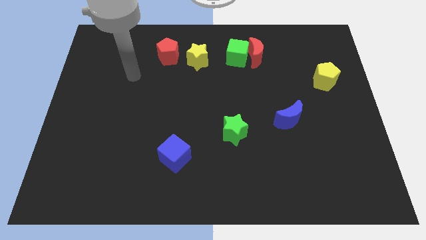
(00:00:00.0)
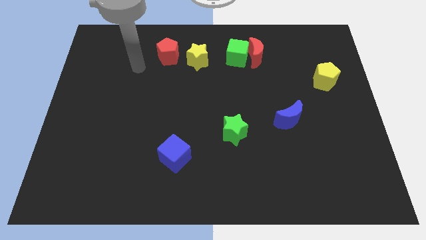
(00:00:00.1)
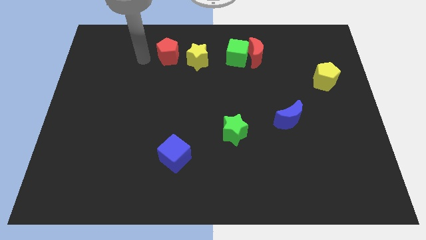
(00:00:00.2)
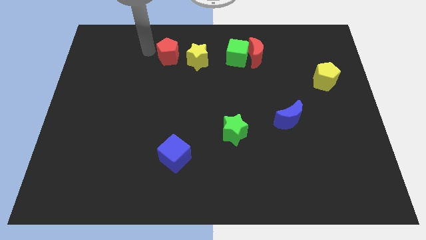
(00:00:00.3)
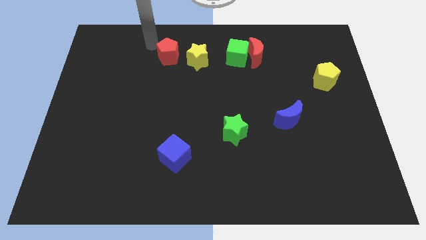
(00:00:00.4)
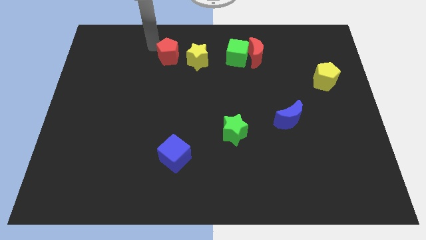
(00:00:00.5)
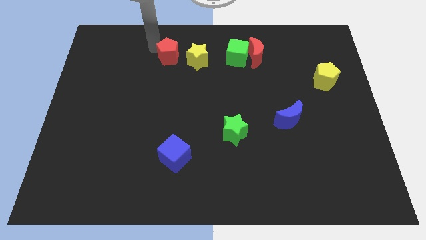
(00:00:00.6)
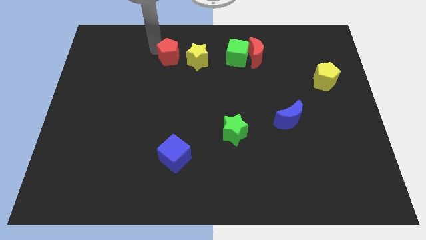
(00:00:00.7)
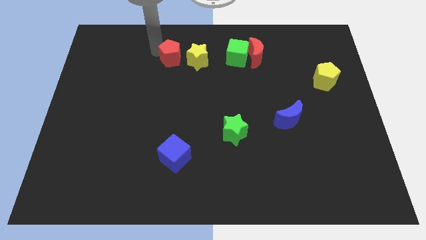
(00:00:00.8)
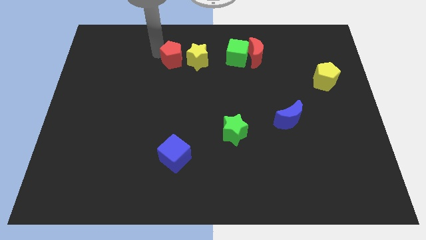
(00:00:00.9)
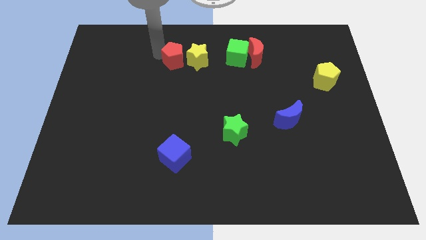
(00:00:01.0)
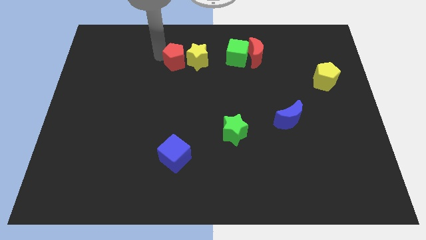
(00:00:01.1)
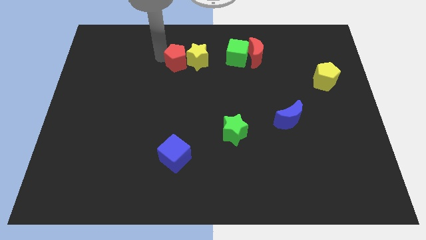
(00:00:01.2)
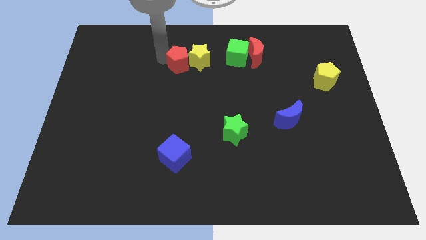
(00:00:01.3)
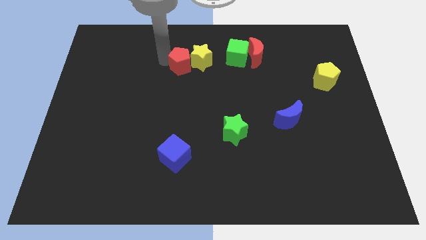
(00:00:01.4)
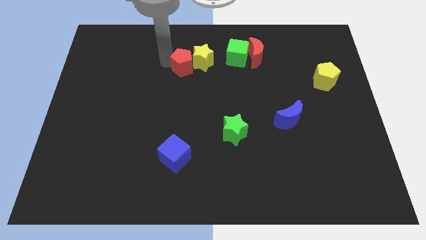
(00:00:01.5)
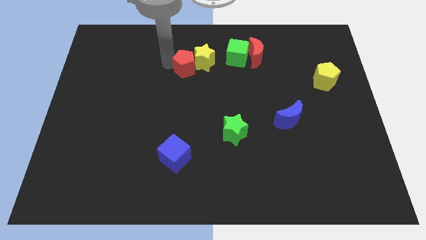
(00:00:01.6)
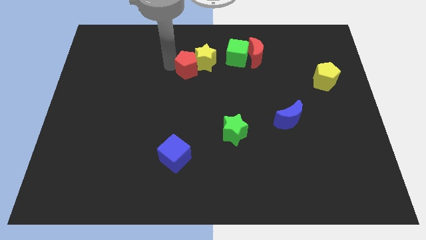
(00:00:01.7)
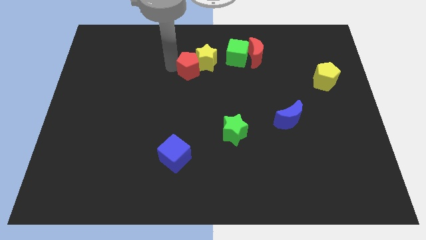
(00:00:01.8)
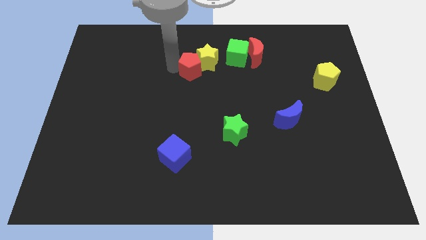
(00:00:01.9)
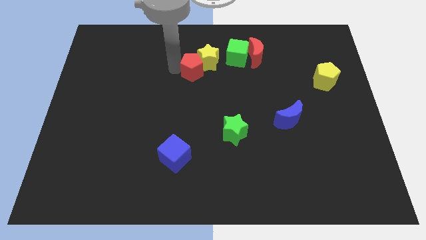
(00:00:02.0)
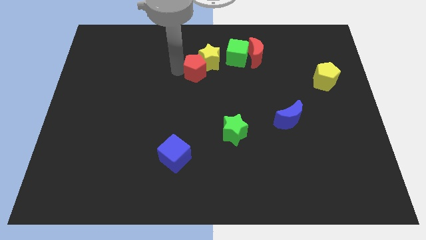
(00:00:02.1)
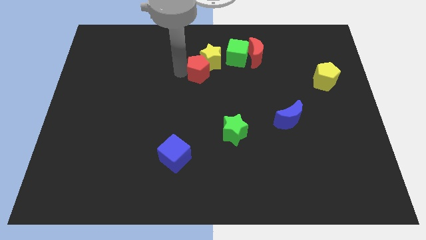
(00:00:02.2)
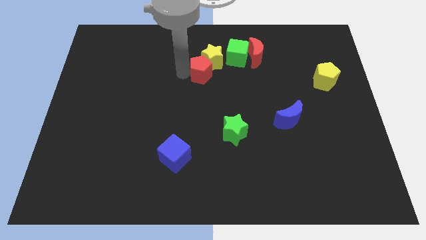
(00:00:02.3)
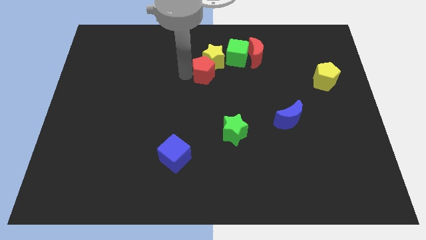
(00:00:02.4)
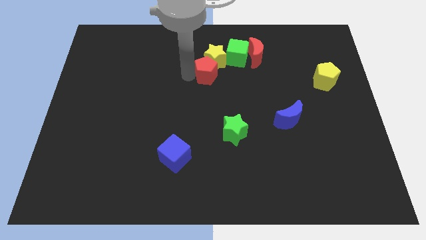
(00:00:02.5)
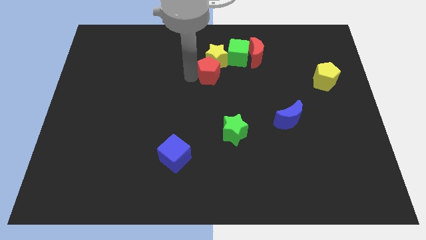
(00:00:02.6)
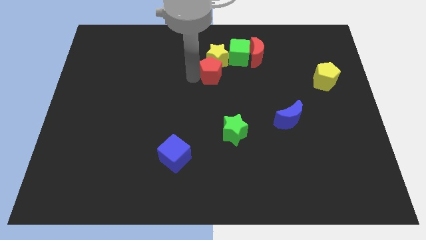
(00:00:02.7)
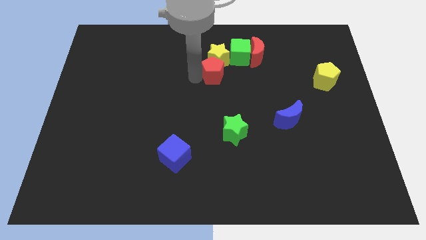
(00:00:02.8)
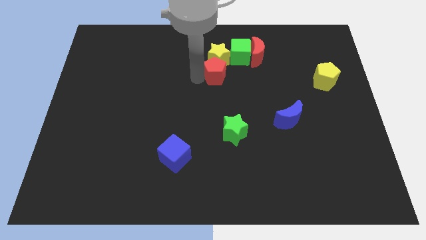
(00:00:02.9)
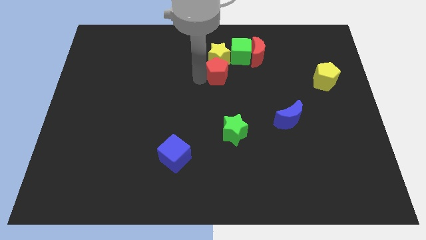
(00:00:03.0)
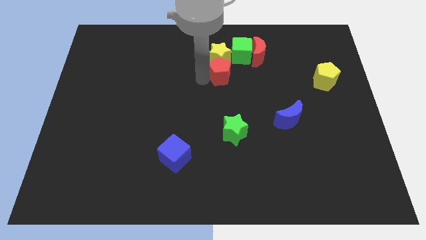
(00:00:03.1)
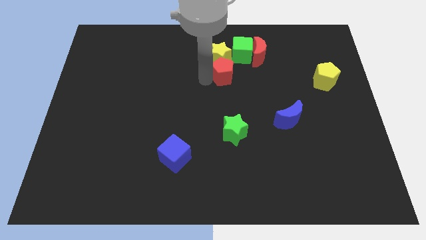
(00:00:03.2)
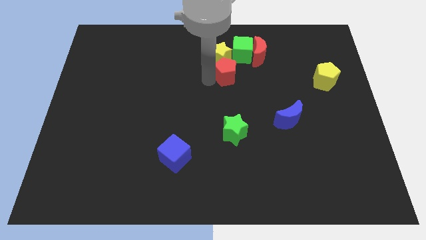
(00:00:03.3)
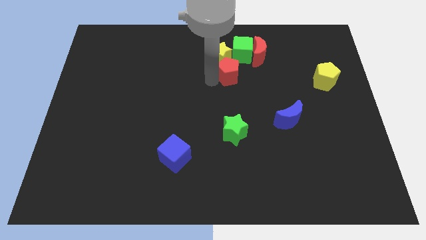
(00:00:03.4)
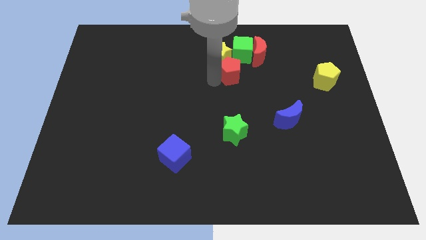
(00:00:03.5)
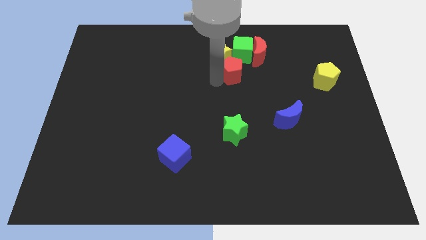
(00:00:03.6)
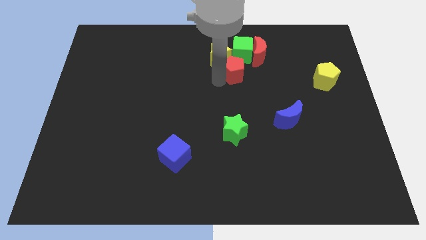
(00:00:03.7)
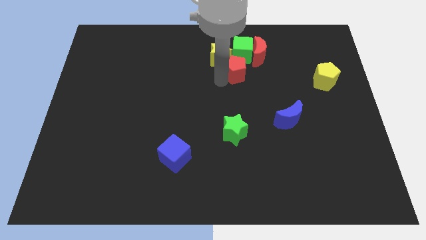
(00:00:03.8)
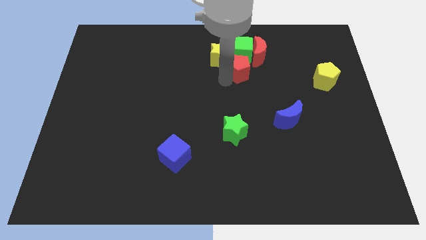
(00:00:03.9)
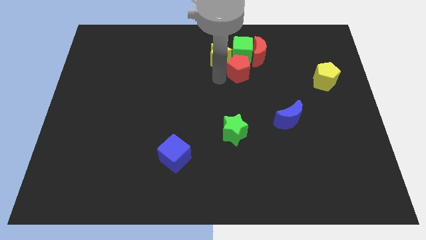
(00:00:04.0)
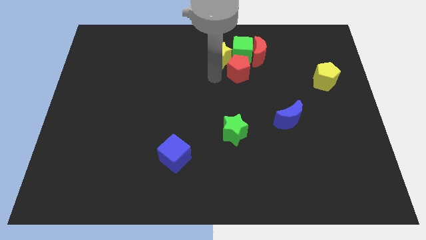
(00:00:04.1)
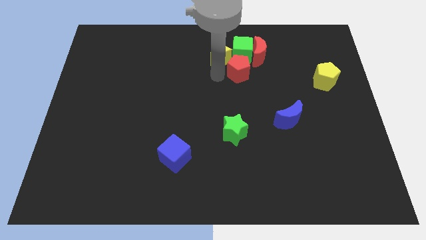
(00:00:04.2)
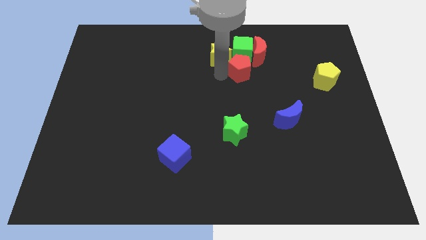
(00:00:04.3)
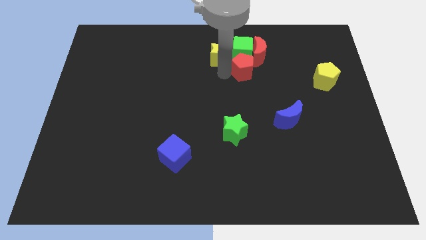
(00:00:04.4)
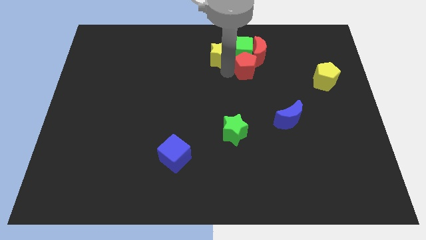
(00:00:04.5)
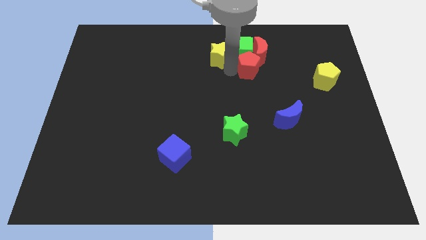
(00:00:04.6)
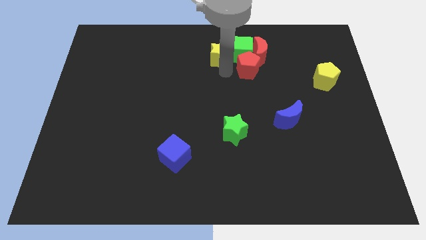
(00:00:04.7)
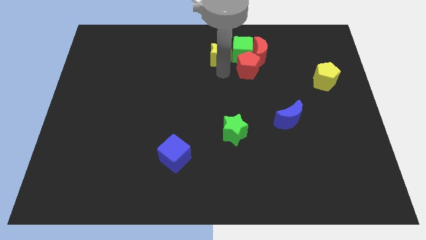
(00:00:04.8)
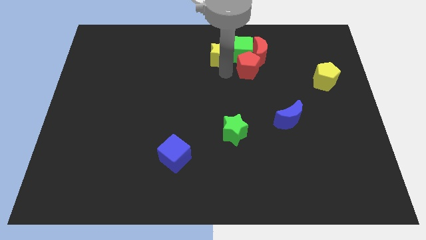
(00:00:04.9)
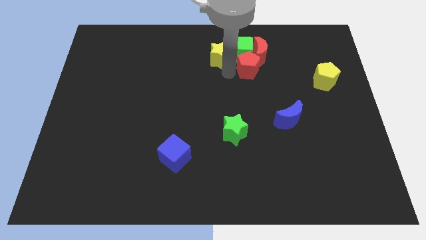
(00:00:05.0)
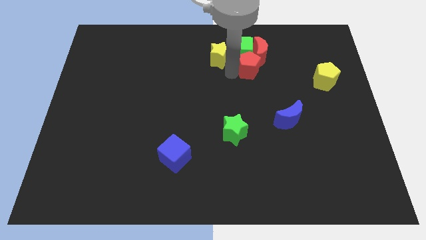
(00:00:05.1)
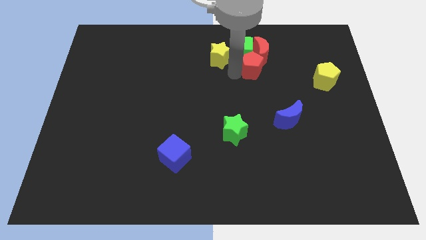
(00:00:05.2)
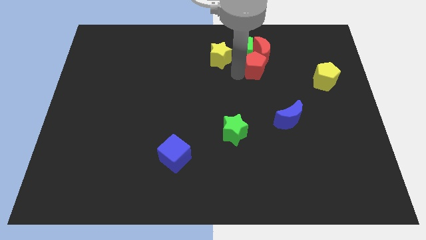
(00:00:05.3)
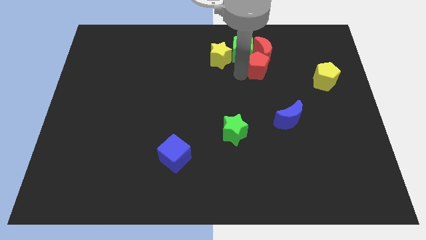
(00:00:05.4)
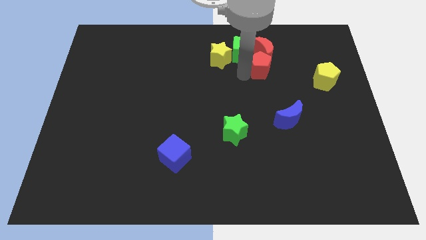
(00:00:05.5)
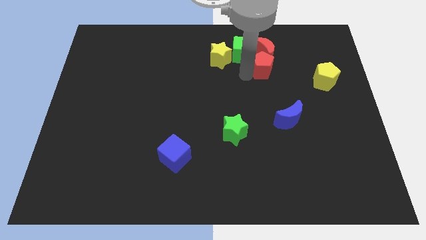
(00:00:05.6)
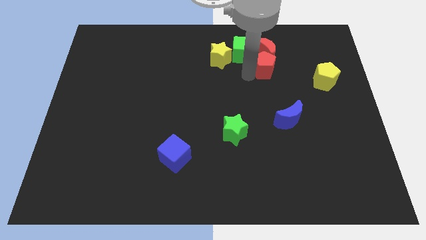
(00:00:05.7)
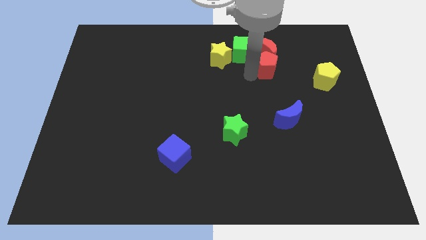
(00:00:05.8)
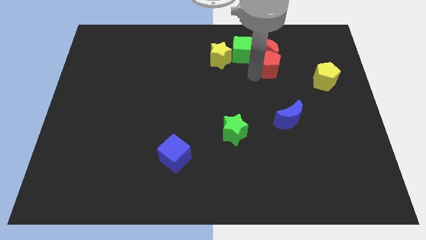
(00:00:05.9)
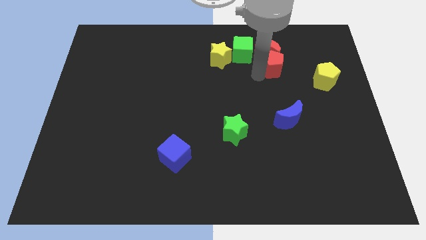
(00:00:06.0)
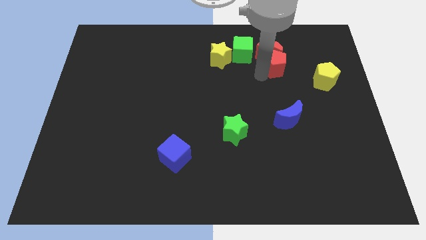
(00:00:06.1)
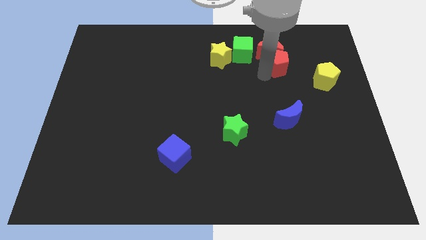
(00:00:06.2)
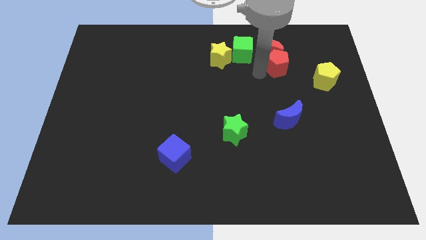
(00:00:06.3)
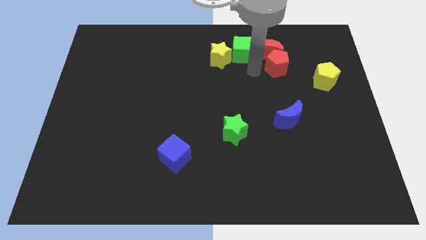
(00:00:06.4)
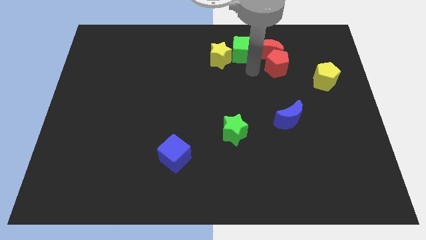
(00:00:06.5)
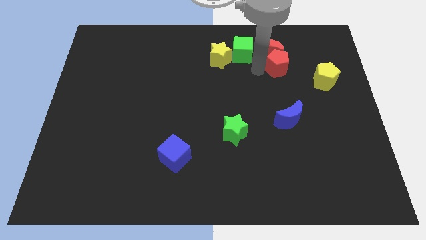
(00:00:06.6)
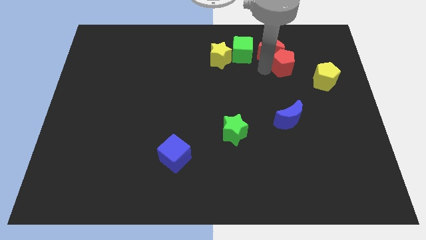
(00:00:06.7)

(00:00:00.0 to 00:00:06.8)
put the red pentagon to the top left side of the yellow pentagon

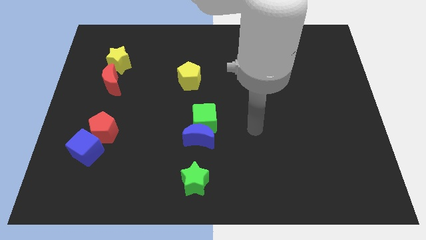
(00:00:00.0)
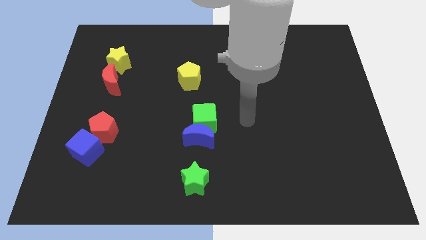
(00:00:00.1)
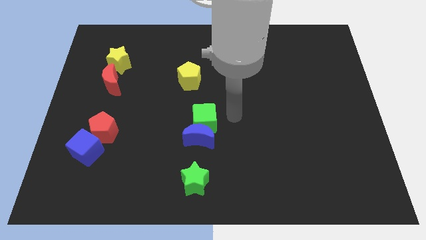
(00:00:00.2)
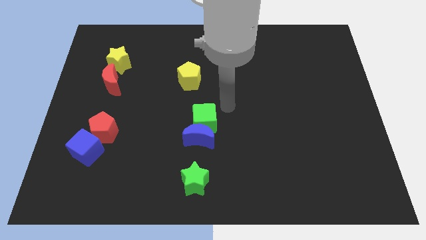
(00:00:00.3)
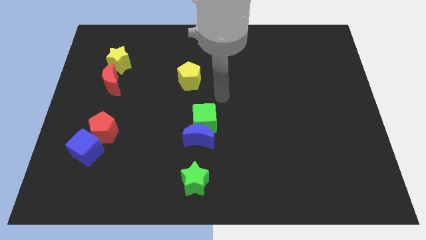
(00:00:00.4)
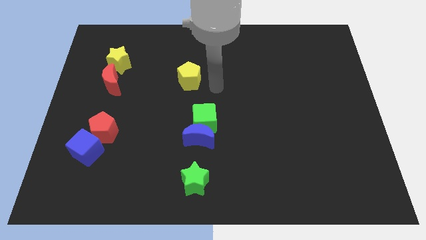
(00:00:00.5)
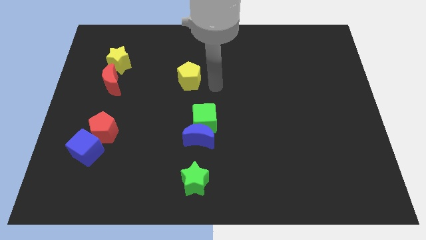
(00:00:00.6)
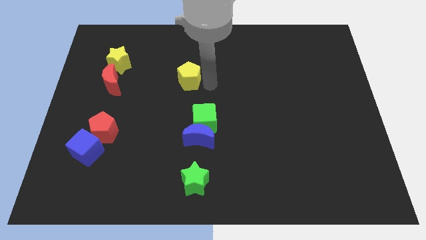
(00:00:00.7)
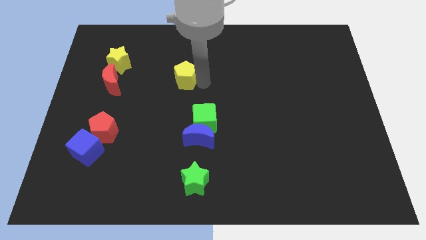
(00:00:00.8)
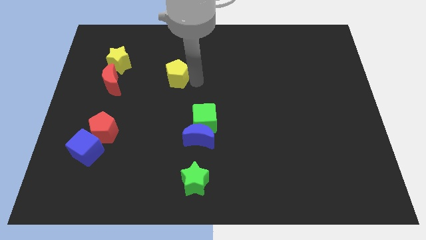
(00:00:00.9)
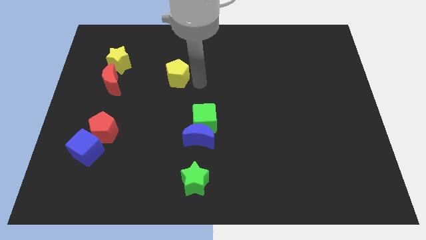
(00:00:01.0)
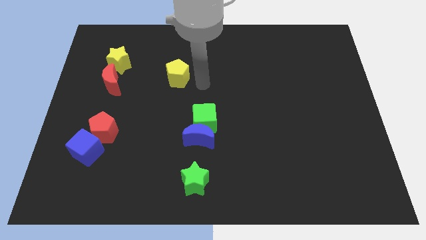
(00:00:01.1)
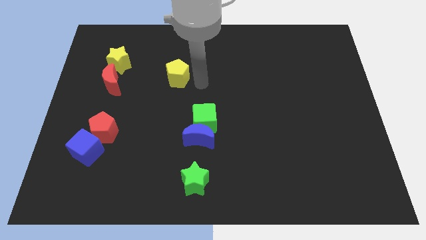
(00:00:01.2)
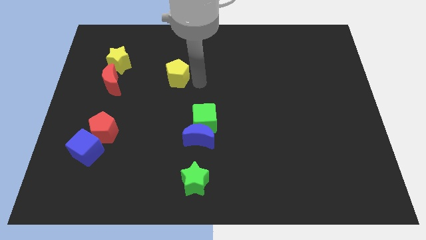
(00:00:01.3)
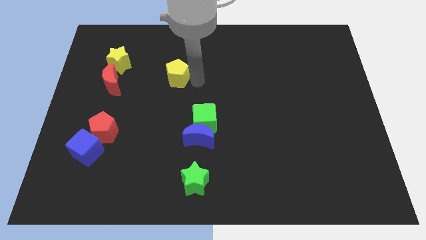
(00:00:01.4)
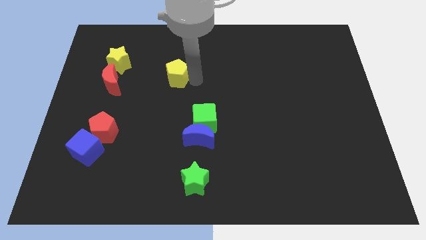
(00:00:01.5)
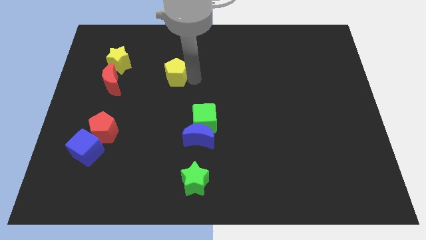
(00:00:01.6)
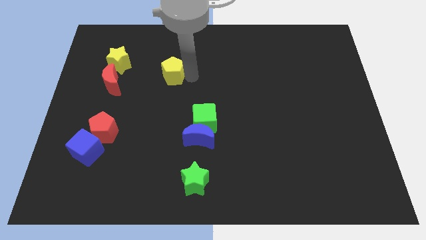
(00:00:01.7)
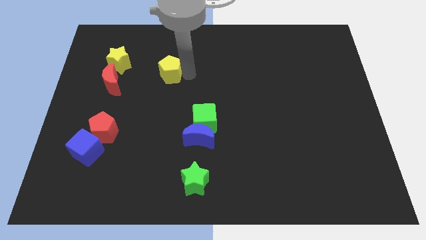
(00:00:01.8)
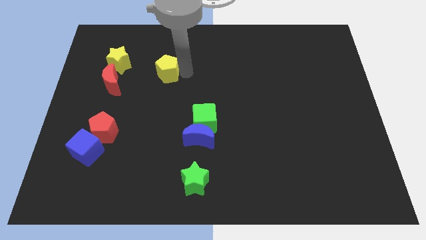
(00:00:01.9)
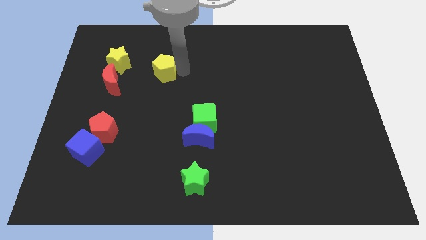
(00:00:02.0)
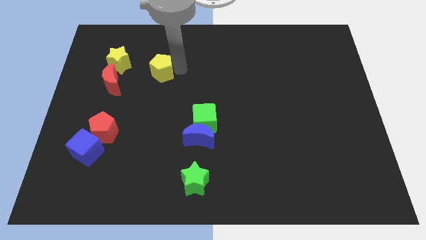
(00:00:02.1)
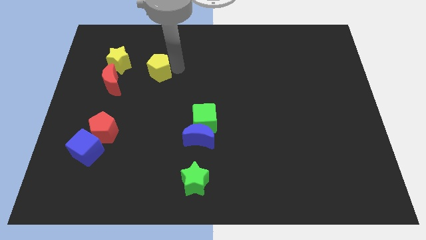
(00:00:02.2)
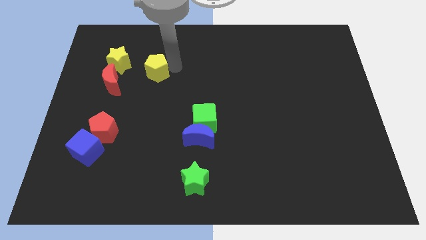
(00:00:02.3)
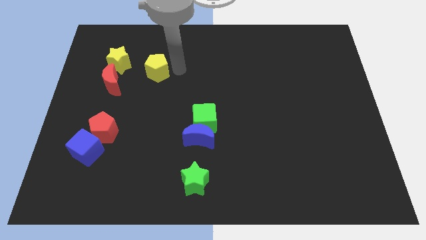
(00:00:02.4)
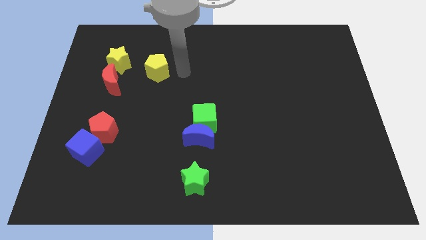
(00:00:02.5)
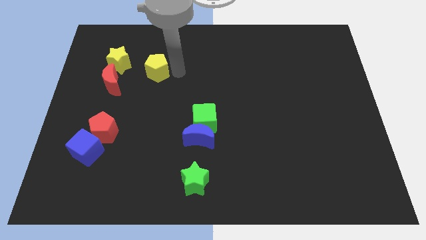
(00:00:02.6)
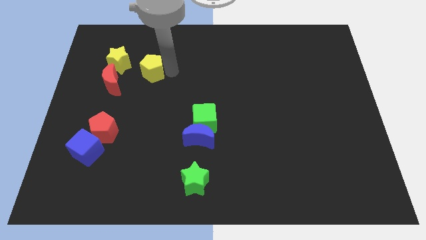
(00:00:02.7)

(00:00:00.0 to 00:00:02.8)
put the yellow pentagon to the top right of the red moon
